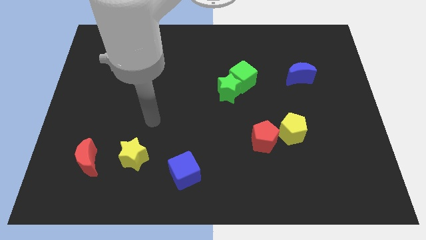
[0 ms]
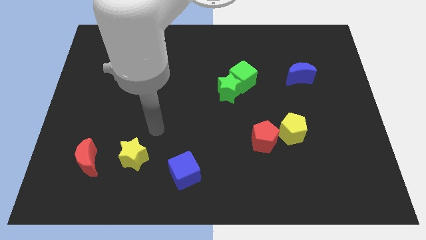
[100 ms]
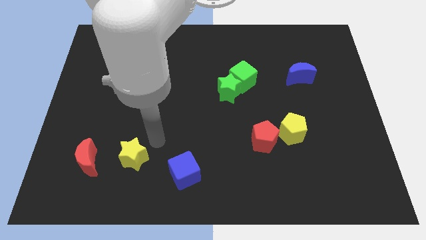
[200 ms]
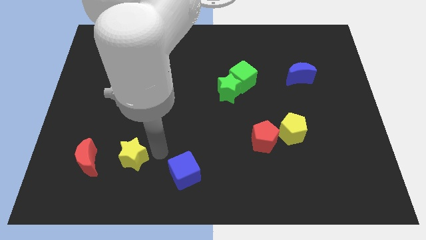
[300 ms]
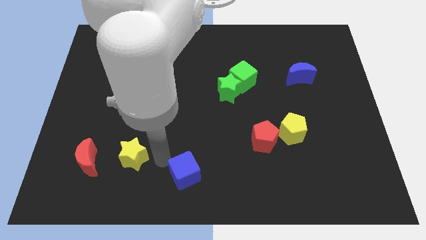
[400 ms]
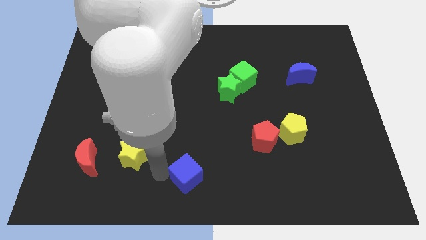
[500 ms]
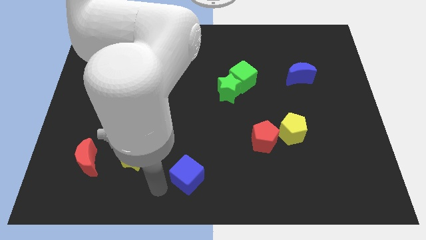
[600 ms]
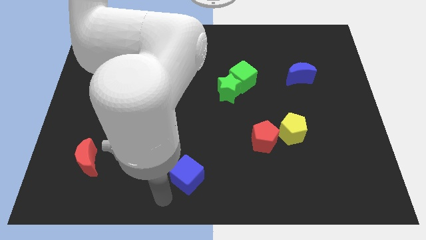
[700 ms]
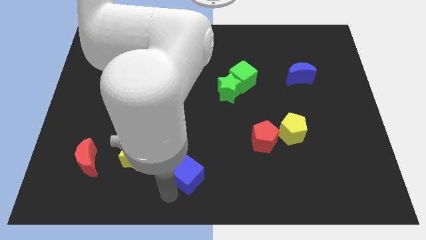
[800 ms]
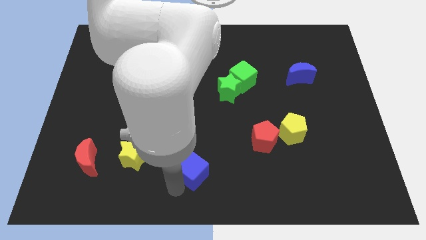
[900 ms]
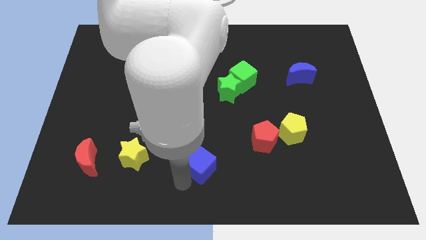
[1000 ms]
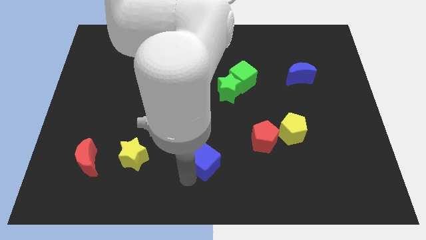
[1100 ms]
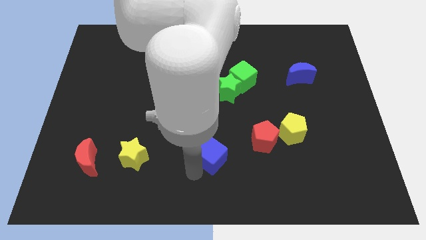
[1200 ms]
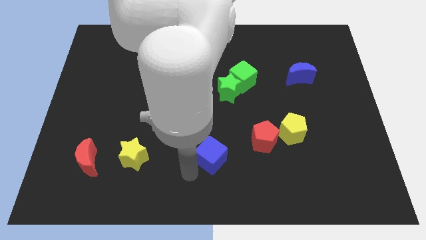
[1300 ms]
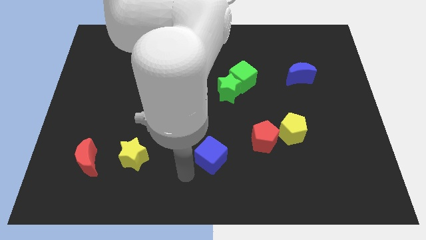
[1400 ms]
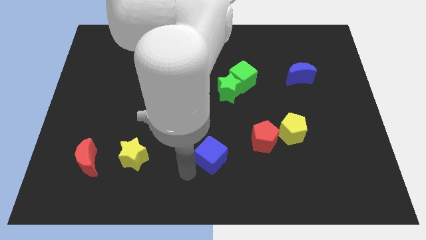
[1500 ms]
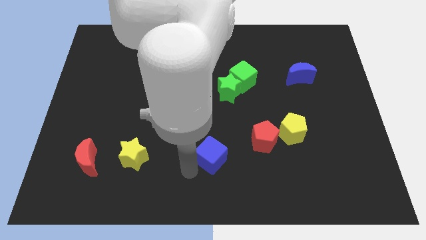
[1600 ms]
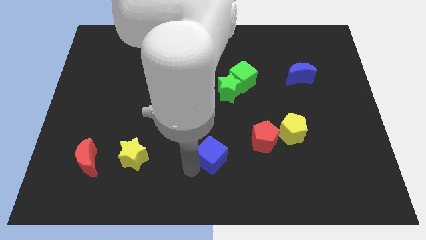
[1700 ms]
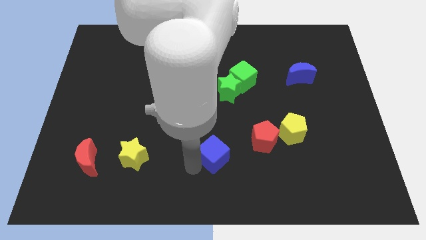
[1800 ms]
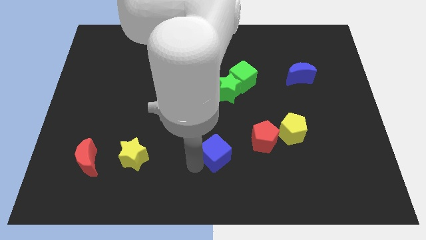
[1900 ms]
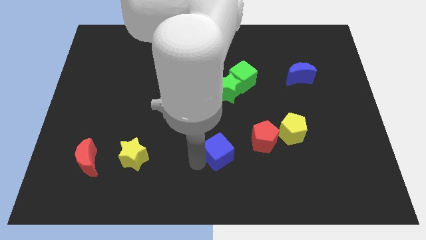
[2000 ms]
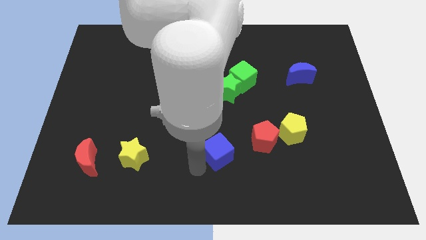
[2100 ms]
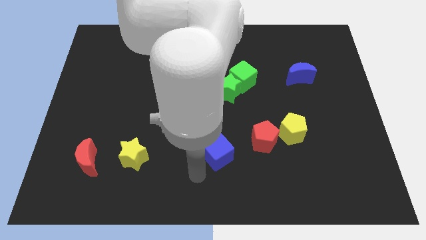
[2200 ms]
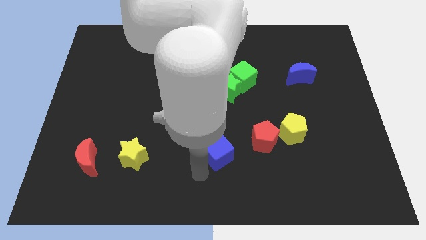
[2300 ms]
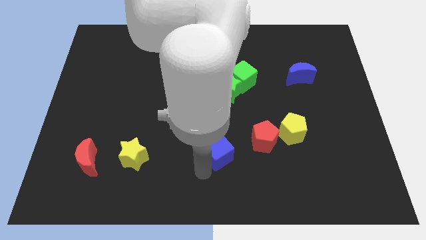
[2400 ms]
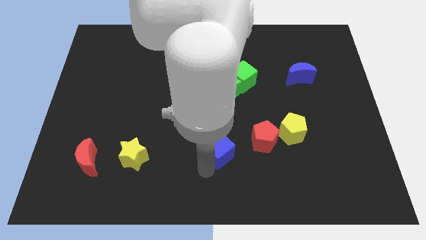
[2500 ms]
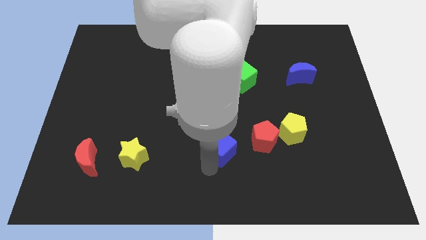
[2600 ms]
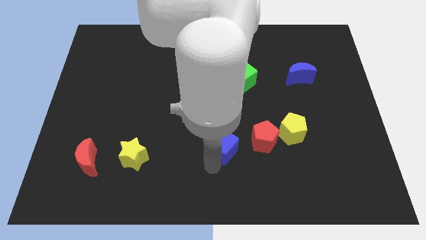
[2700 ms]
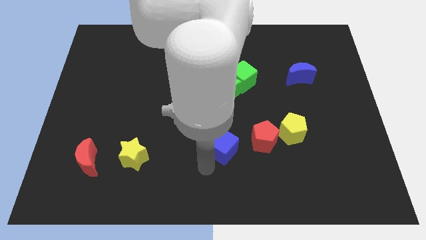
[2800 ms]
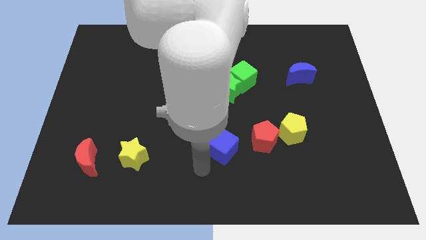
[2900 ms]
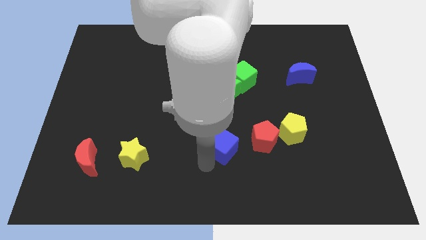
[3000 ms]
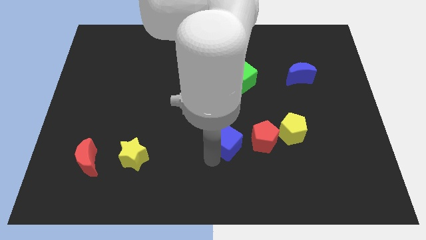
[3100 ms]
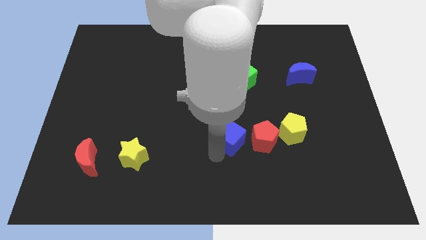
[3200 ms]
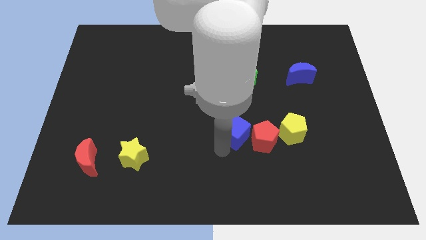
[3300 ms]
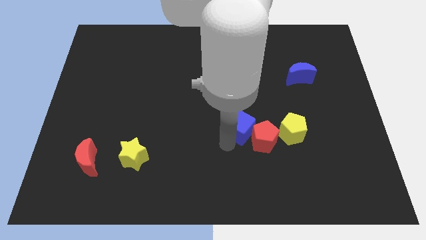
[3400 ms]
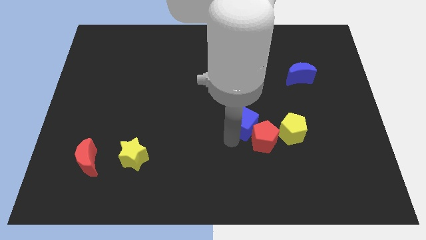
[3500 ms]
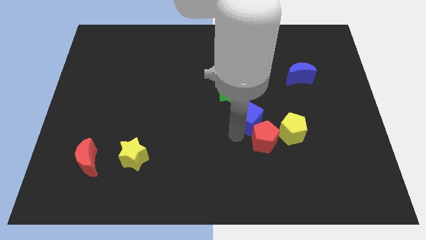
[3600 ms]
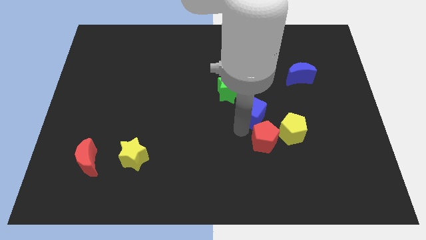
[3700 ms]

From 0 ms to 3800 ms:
push the blue cube up and then to the right

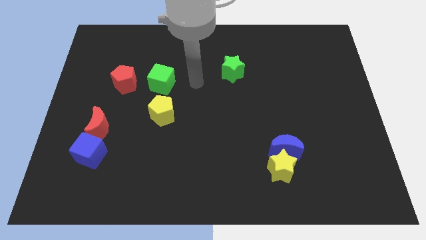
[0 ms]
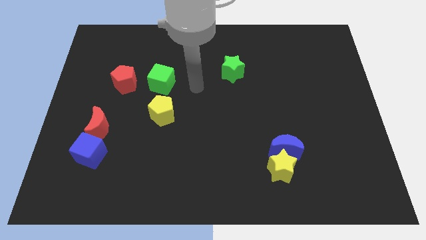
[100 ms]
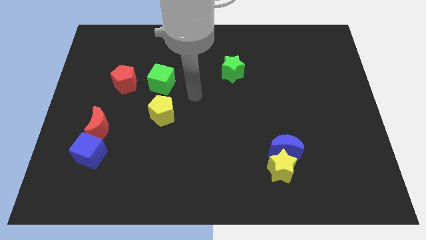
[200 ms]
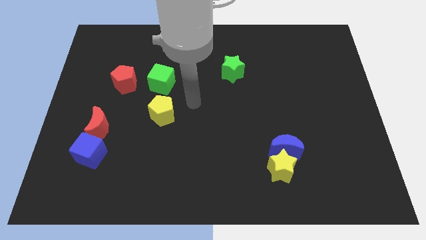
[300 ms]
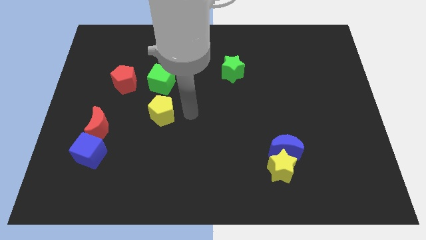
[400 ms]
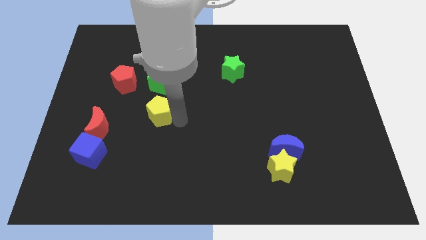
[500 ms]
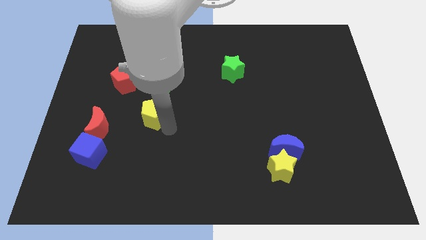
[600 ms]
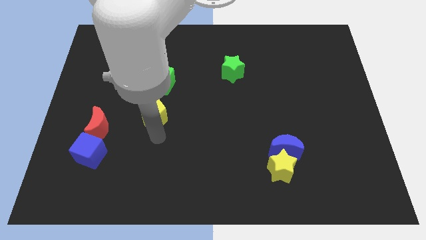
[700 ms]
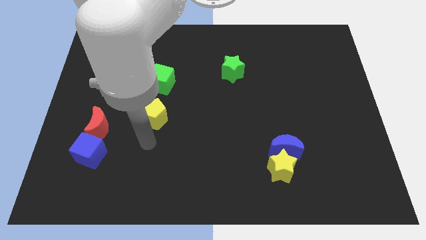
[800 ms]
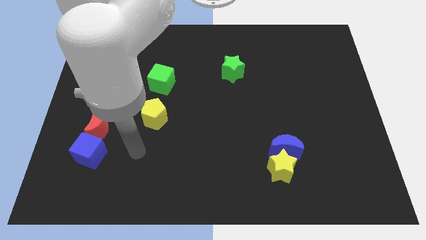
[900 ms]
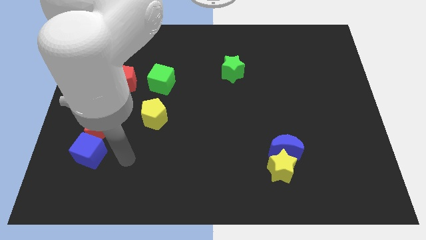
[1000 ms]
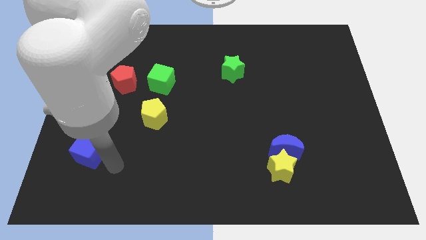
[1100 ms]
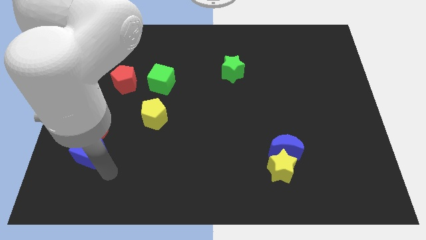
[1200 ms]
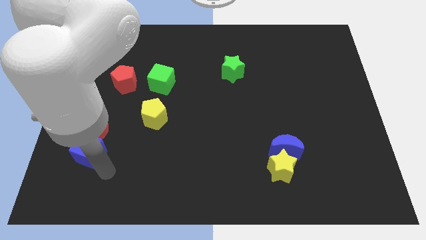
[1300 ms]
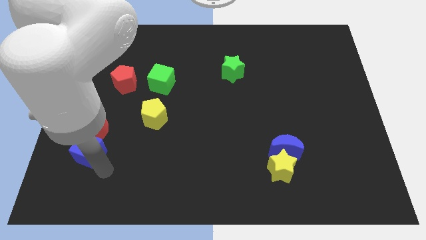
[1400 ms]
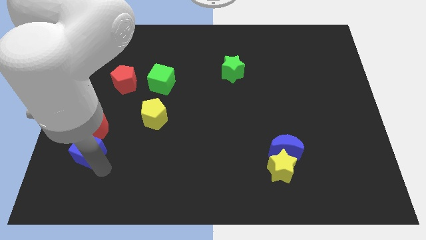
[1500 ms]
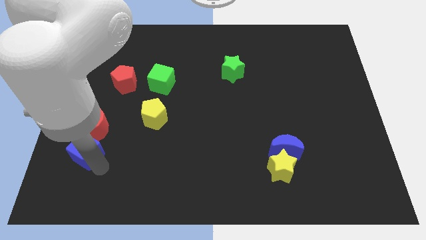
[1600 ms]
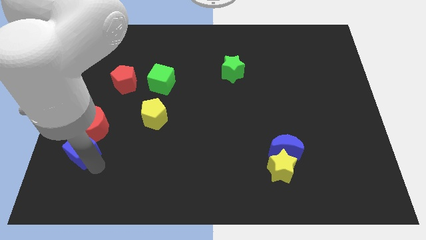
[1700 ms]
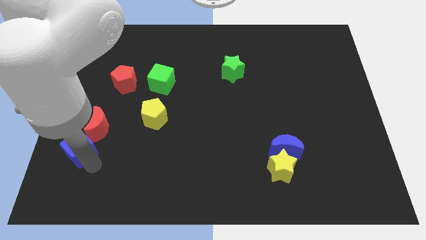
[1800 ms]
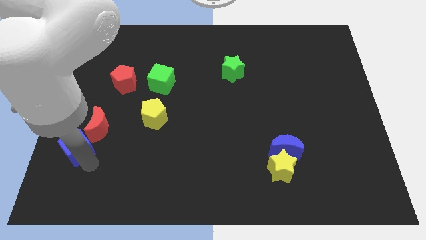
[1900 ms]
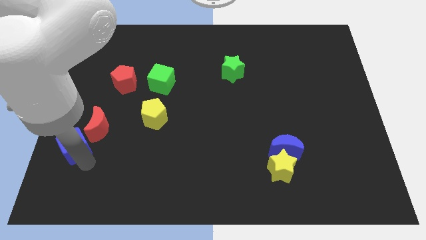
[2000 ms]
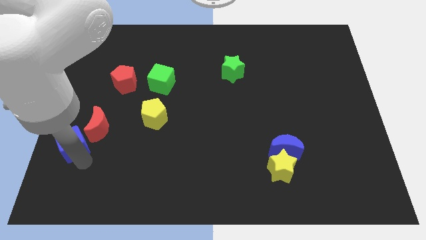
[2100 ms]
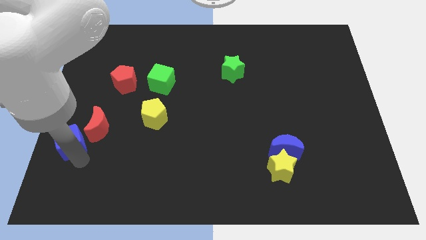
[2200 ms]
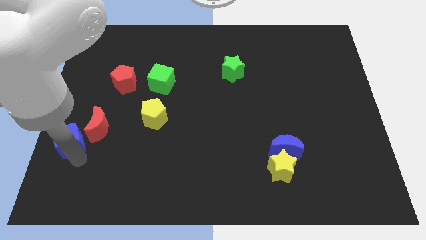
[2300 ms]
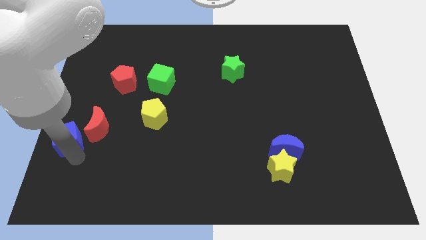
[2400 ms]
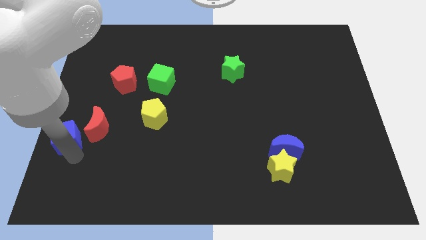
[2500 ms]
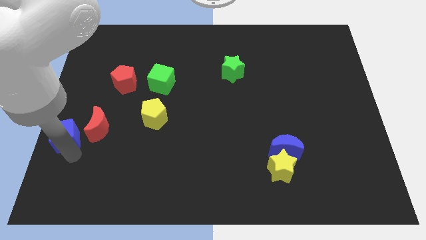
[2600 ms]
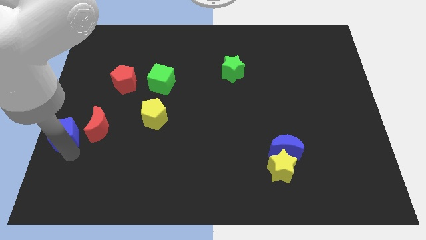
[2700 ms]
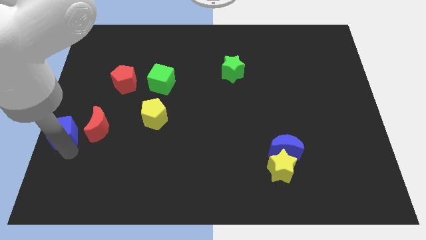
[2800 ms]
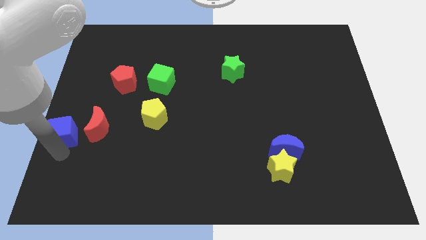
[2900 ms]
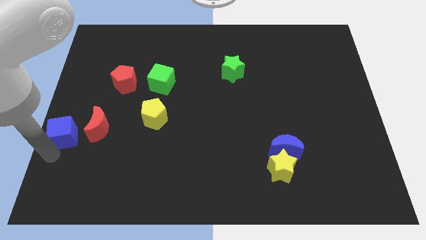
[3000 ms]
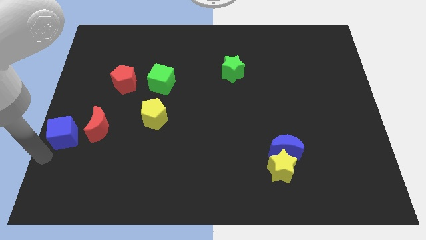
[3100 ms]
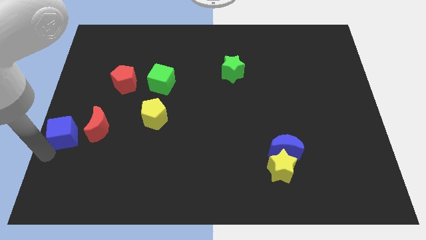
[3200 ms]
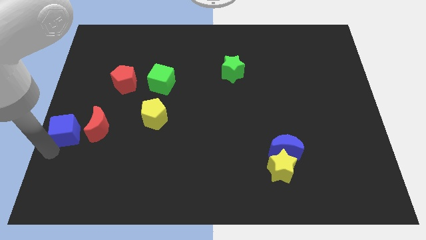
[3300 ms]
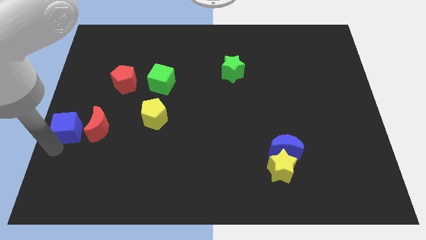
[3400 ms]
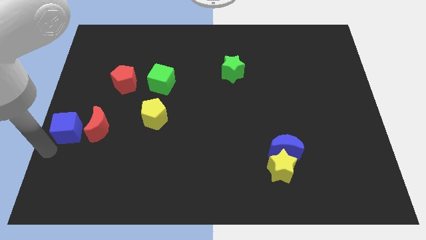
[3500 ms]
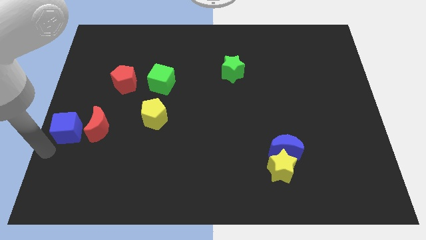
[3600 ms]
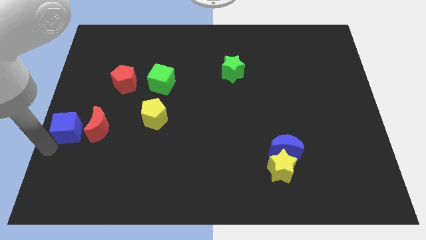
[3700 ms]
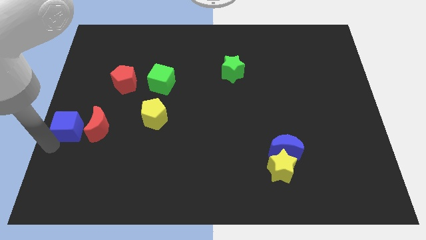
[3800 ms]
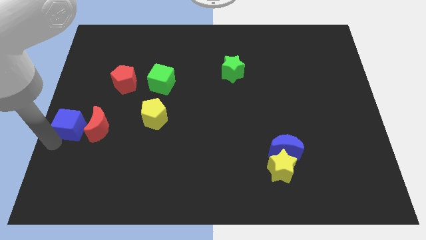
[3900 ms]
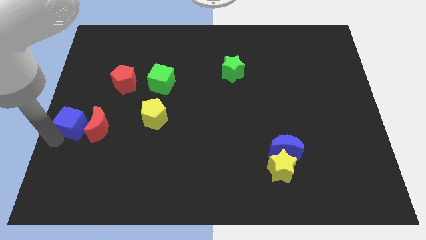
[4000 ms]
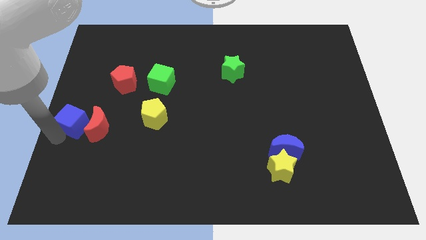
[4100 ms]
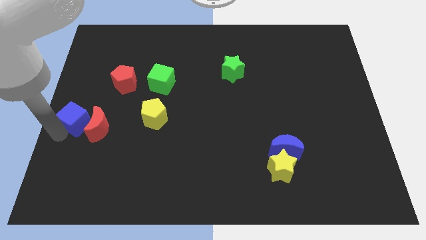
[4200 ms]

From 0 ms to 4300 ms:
slightly slide the blue cube upwards

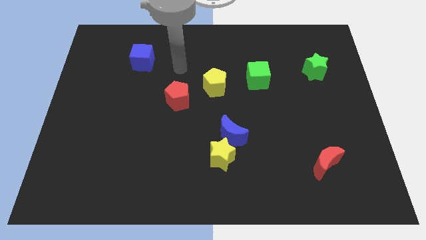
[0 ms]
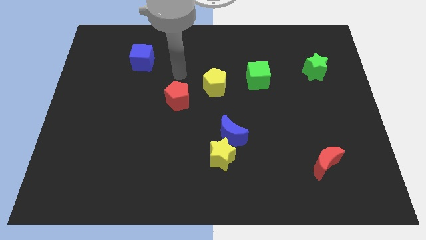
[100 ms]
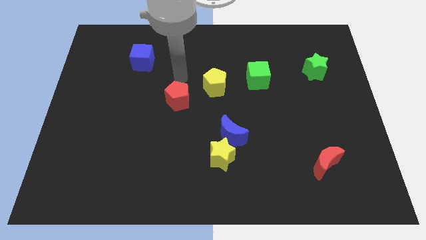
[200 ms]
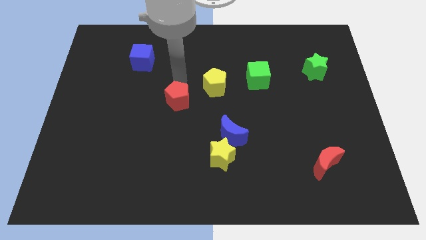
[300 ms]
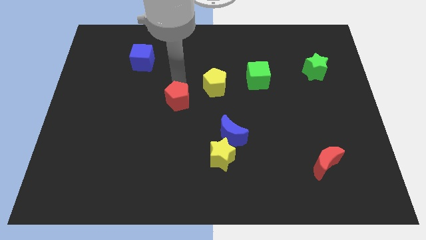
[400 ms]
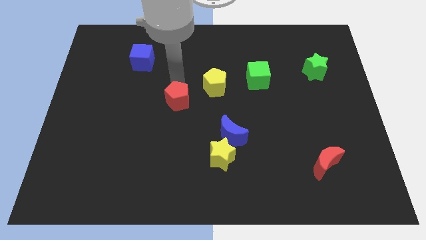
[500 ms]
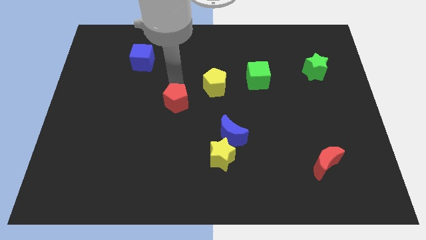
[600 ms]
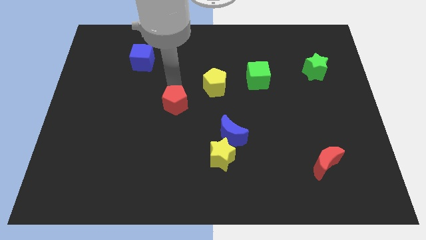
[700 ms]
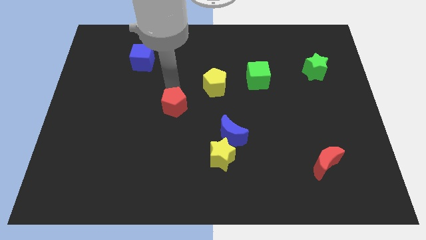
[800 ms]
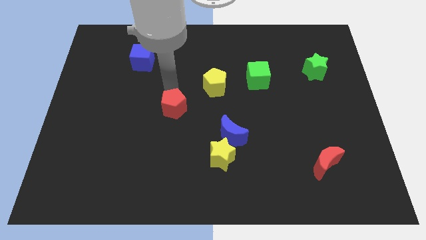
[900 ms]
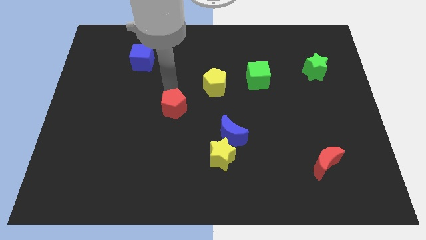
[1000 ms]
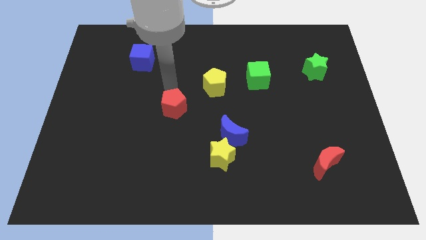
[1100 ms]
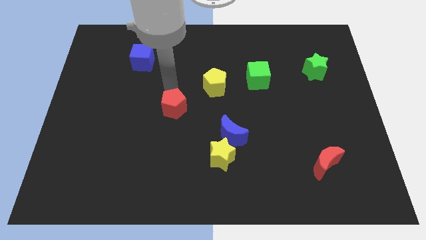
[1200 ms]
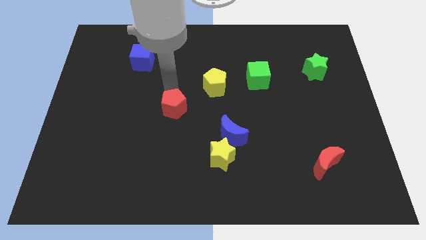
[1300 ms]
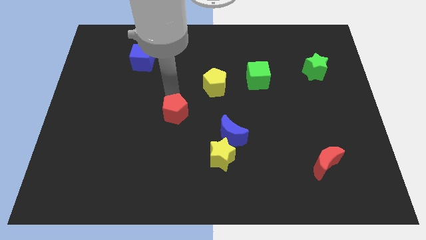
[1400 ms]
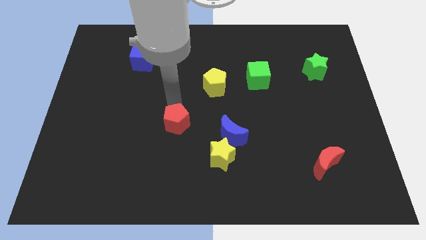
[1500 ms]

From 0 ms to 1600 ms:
slightly slide the red pentagon downwards
